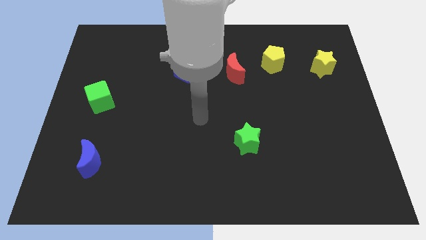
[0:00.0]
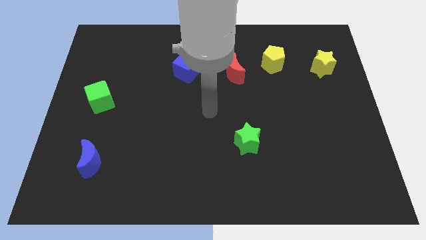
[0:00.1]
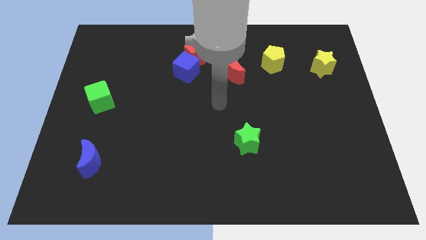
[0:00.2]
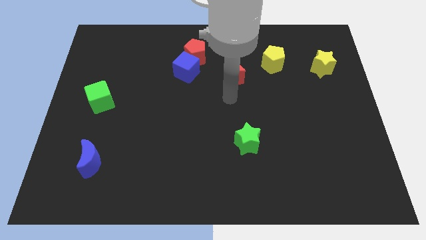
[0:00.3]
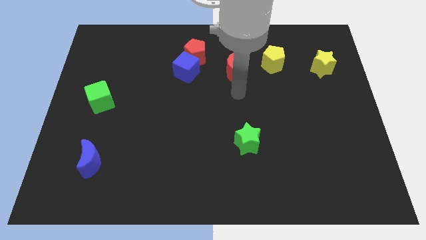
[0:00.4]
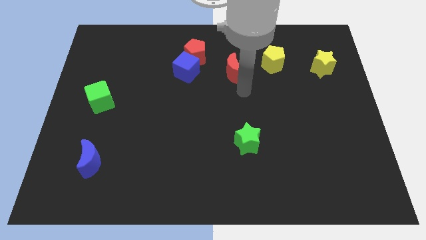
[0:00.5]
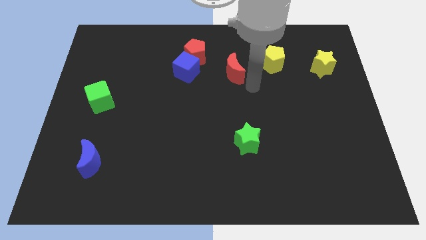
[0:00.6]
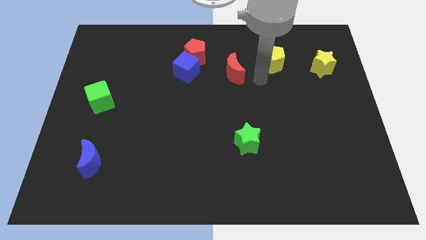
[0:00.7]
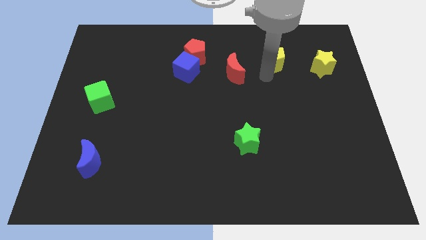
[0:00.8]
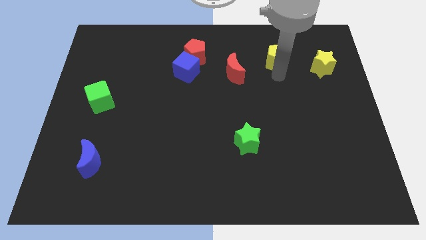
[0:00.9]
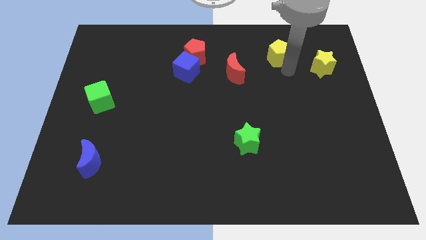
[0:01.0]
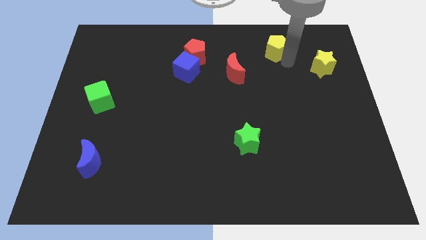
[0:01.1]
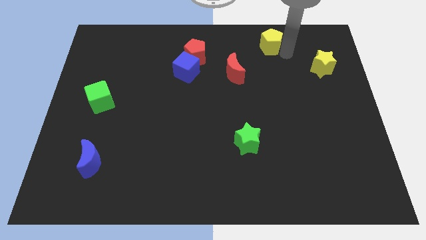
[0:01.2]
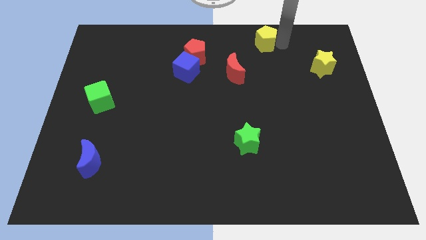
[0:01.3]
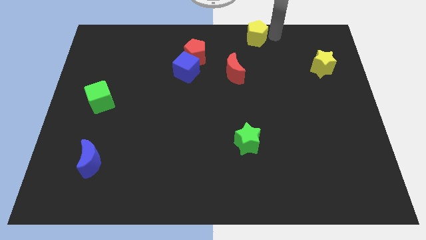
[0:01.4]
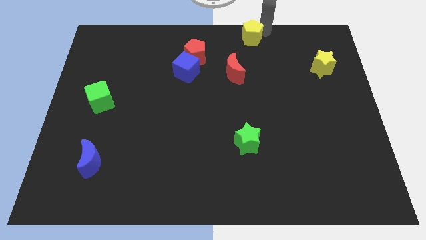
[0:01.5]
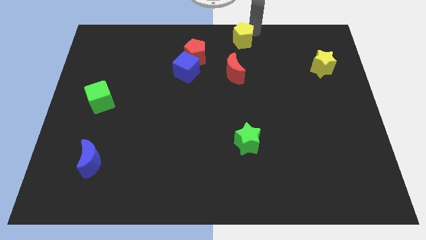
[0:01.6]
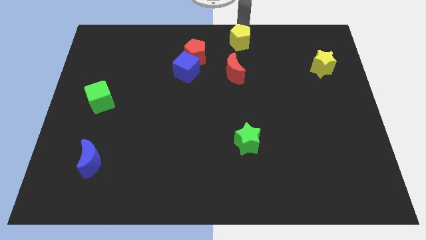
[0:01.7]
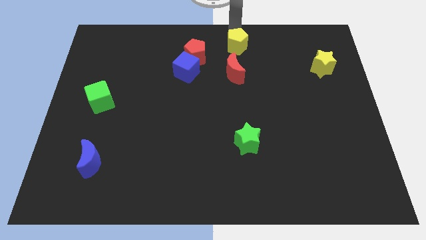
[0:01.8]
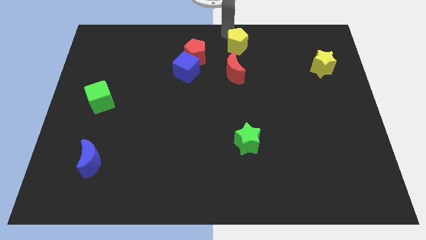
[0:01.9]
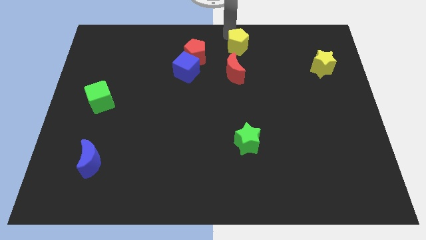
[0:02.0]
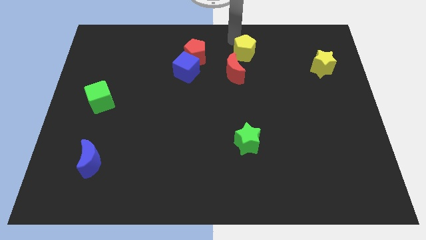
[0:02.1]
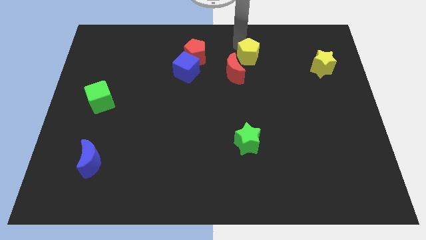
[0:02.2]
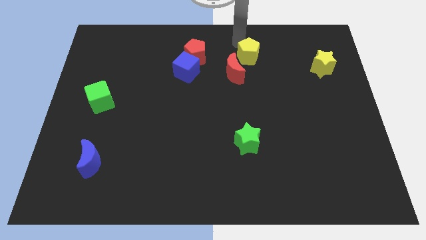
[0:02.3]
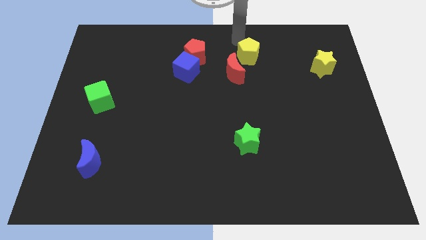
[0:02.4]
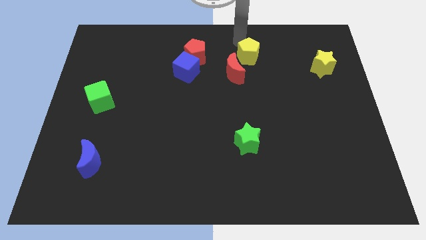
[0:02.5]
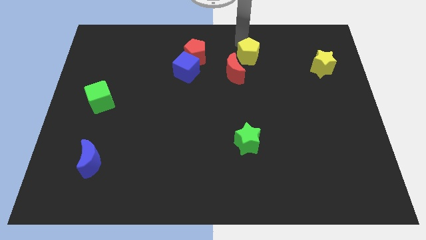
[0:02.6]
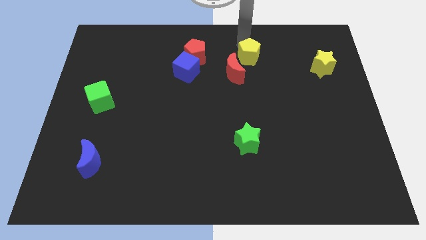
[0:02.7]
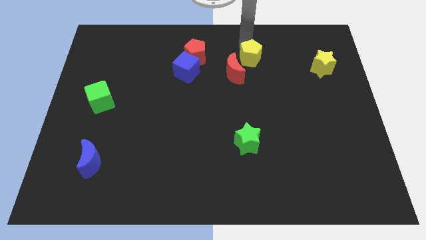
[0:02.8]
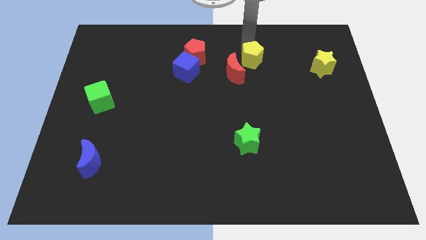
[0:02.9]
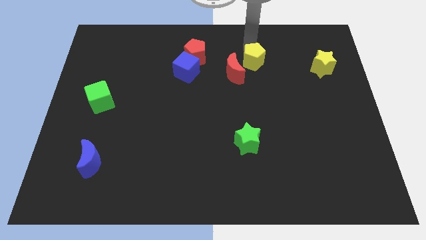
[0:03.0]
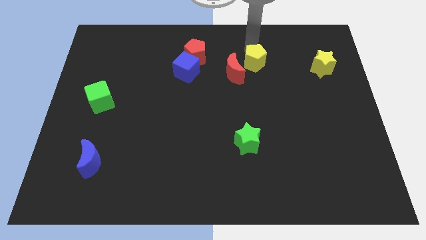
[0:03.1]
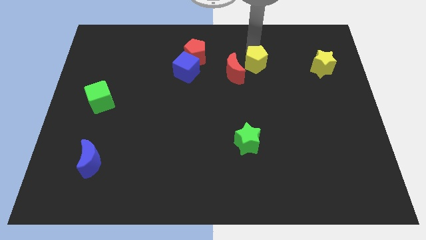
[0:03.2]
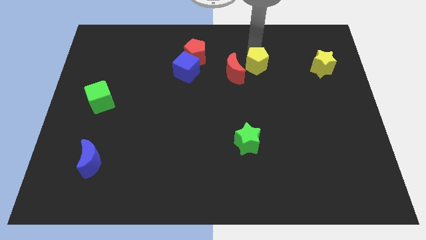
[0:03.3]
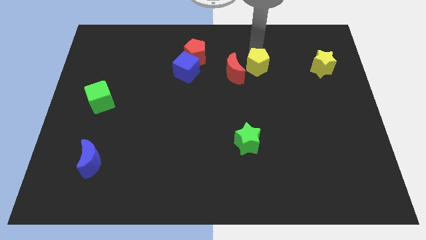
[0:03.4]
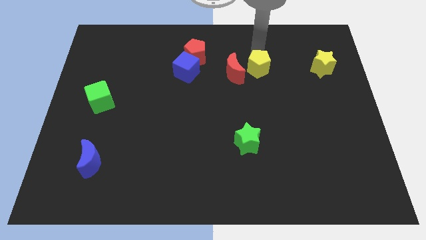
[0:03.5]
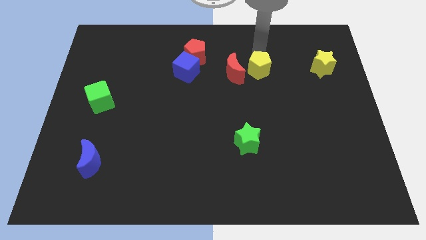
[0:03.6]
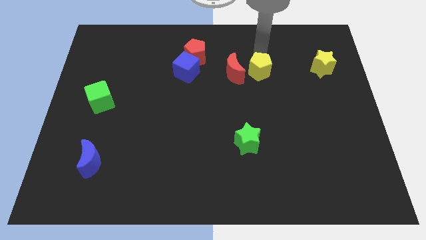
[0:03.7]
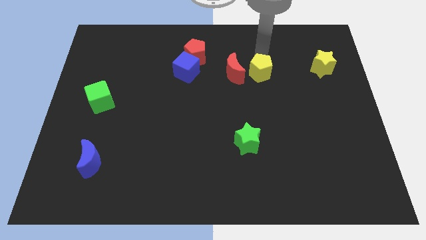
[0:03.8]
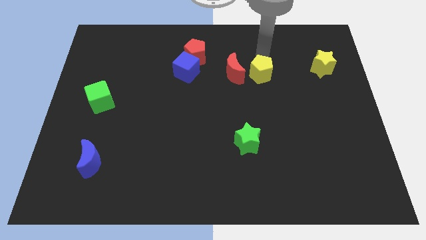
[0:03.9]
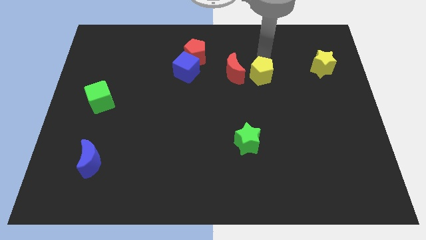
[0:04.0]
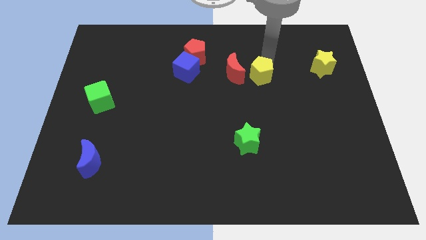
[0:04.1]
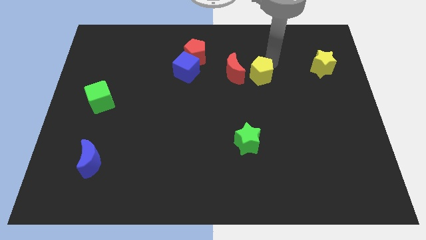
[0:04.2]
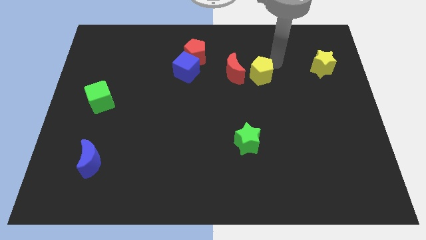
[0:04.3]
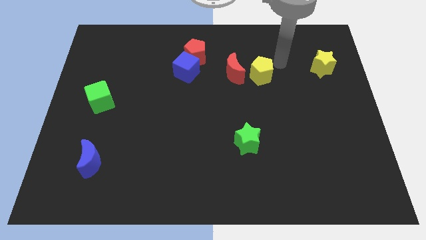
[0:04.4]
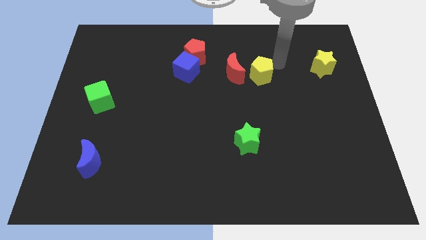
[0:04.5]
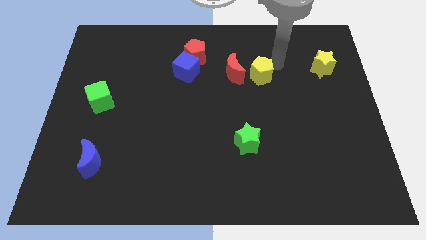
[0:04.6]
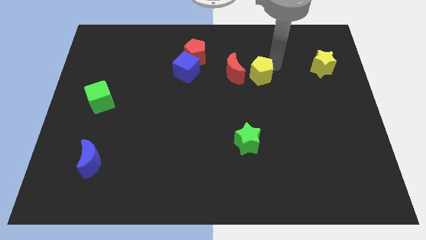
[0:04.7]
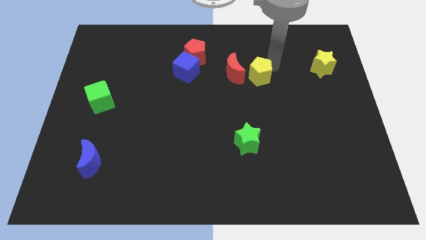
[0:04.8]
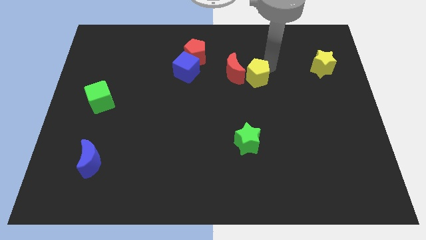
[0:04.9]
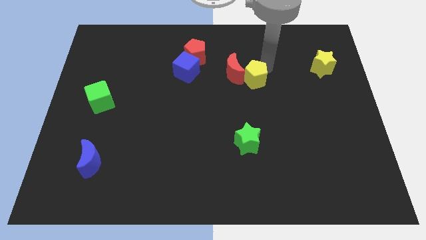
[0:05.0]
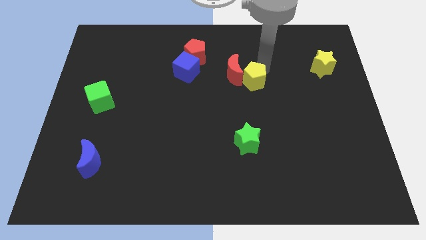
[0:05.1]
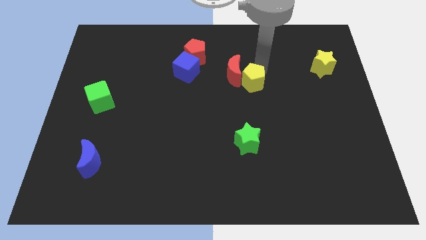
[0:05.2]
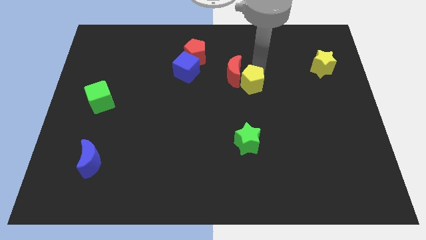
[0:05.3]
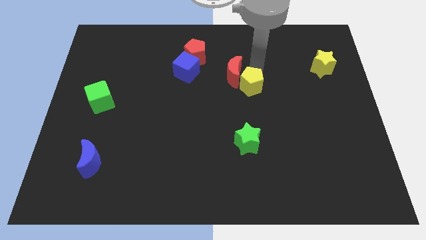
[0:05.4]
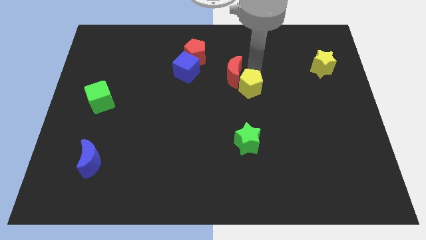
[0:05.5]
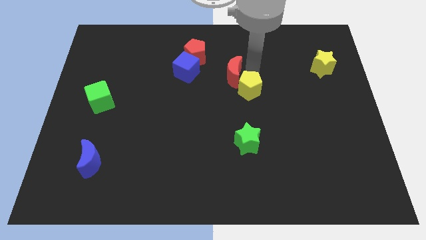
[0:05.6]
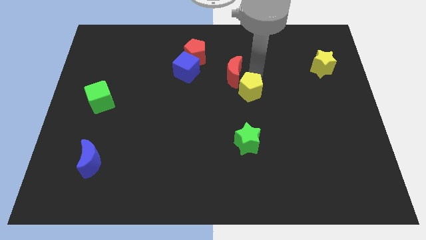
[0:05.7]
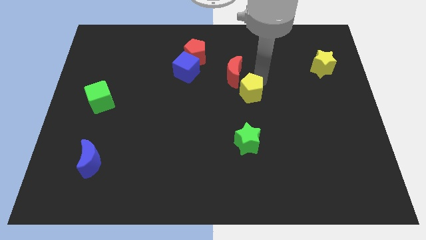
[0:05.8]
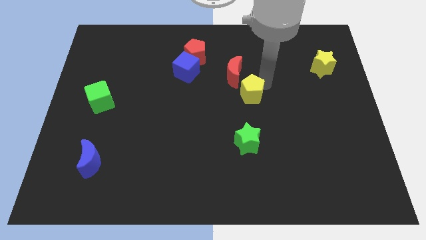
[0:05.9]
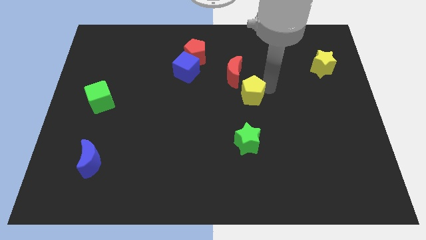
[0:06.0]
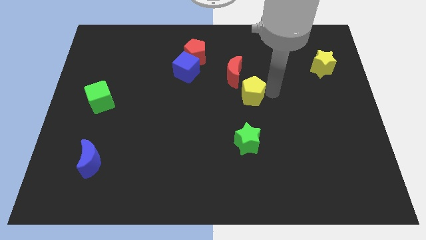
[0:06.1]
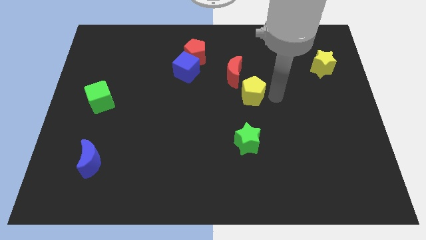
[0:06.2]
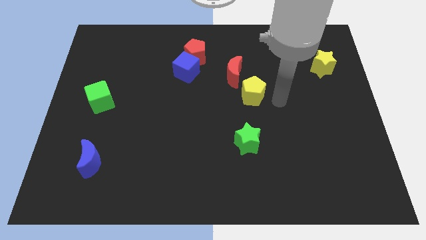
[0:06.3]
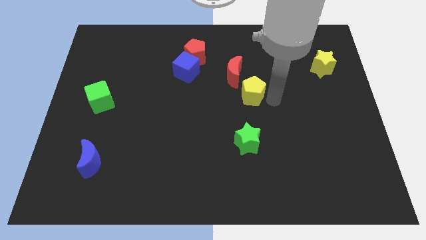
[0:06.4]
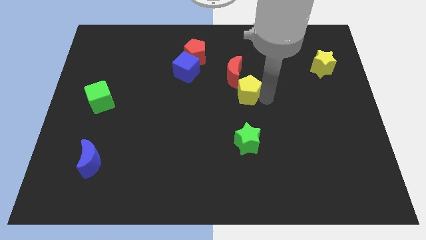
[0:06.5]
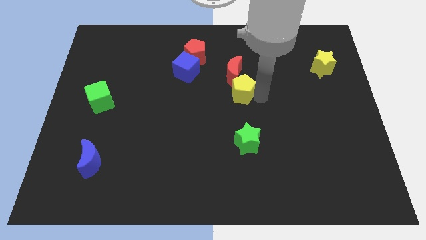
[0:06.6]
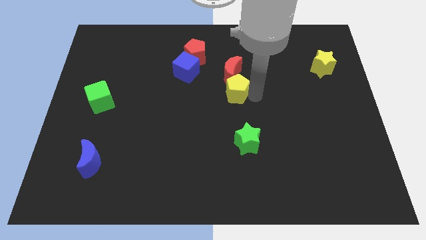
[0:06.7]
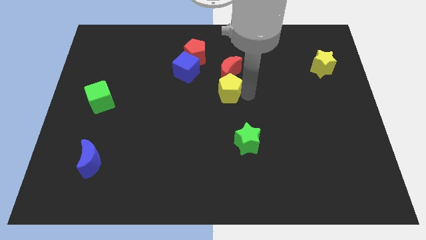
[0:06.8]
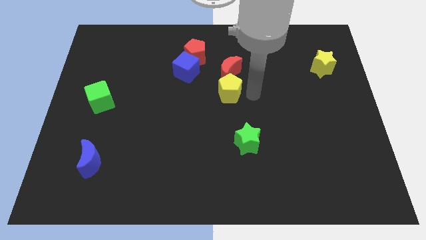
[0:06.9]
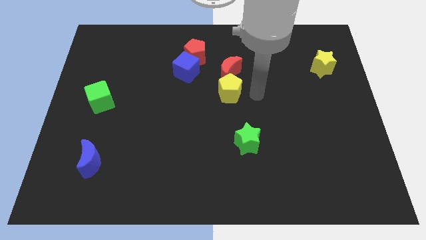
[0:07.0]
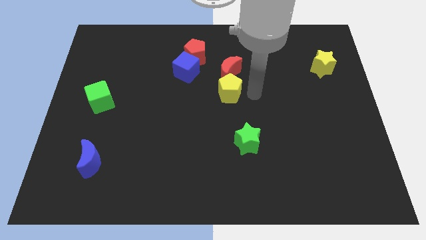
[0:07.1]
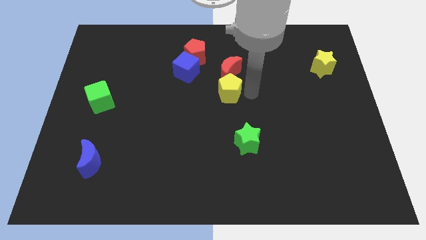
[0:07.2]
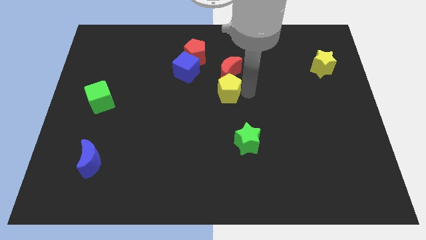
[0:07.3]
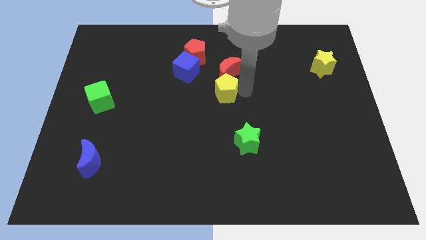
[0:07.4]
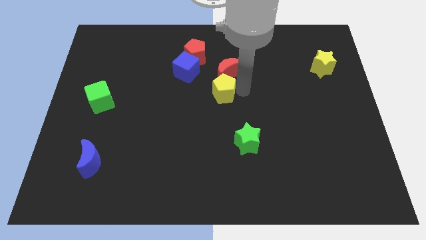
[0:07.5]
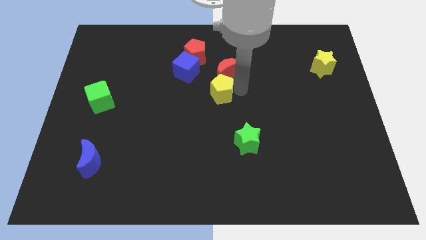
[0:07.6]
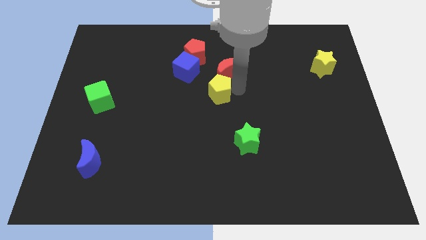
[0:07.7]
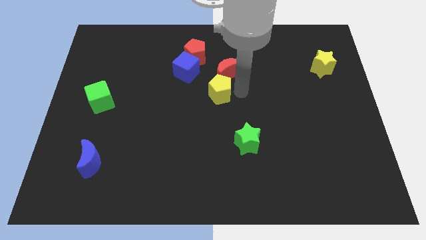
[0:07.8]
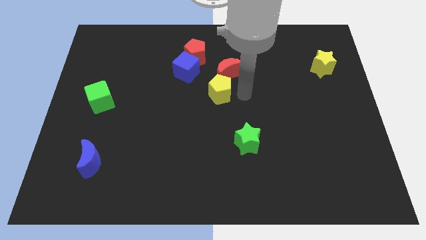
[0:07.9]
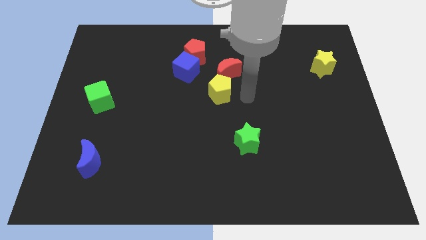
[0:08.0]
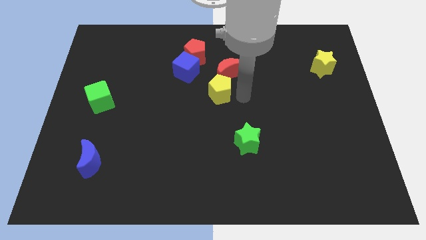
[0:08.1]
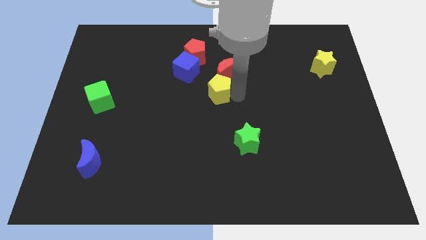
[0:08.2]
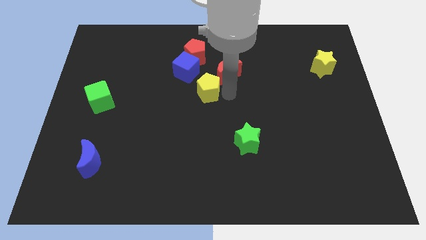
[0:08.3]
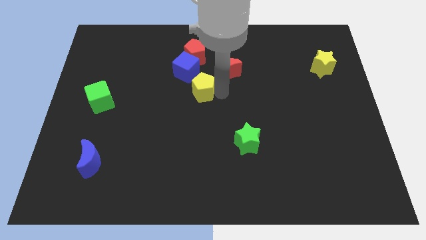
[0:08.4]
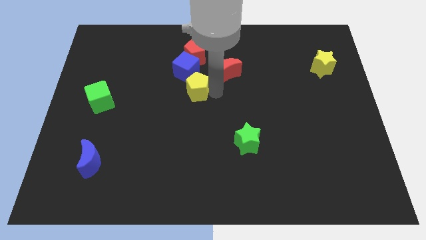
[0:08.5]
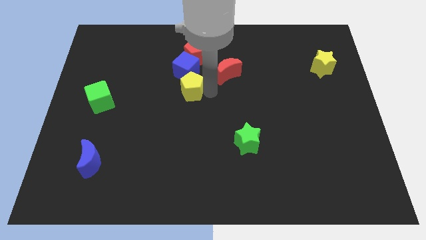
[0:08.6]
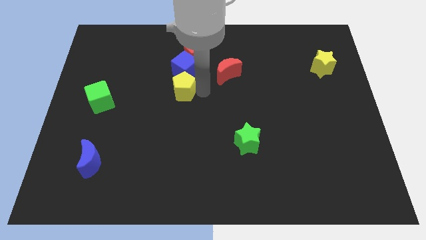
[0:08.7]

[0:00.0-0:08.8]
push the yellow pentagon diagonally down and to the left of the blue cube
